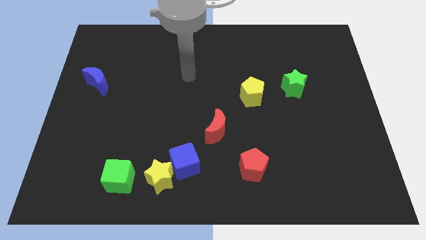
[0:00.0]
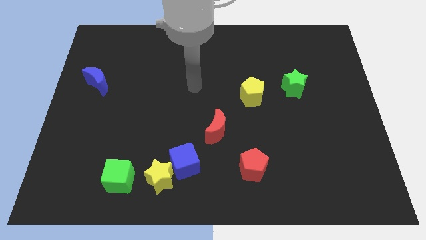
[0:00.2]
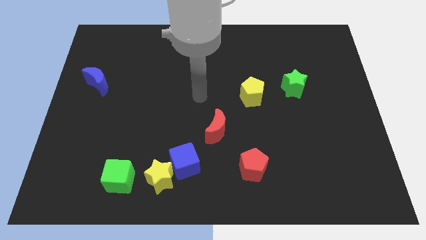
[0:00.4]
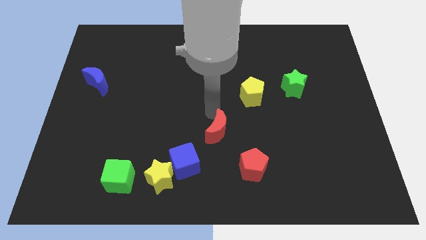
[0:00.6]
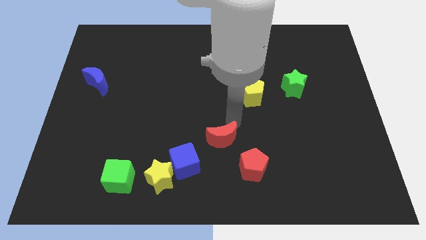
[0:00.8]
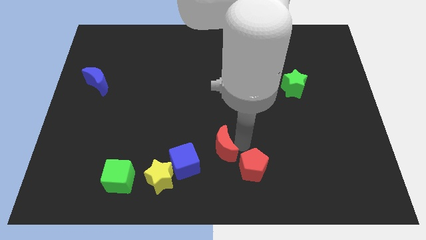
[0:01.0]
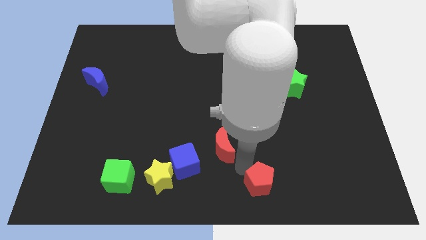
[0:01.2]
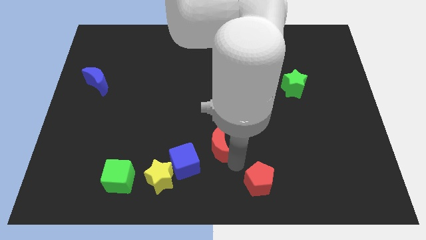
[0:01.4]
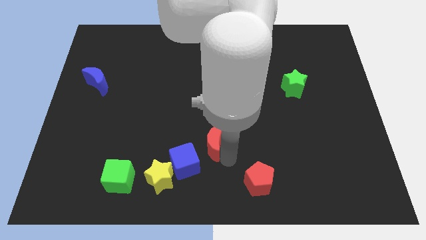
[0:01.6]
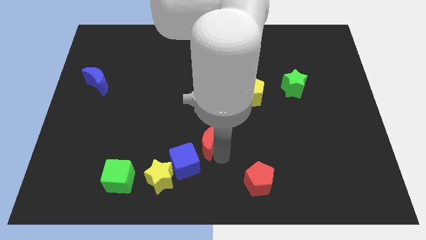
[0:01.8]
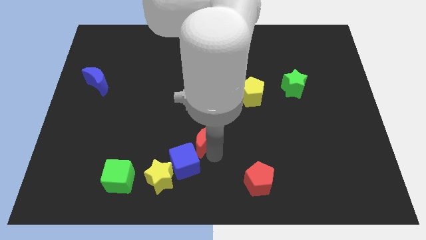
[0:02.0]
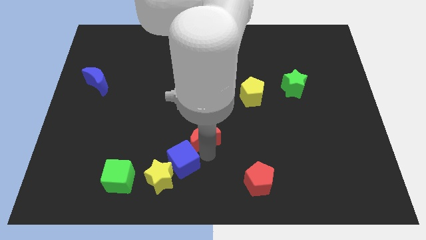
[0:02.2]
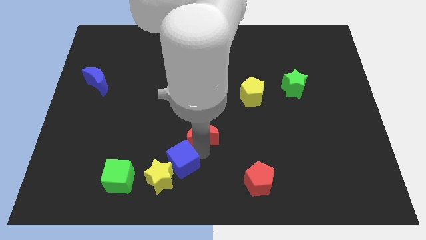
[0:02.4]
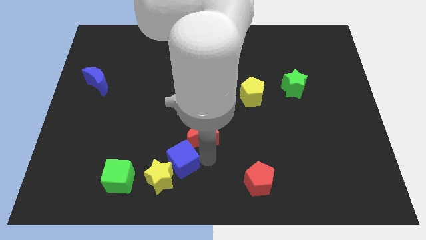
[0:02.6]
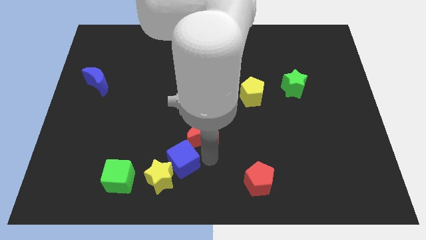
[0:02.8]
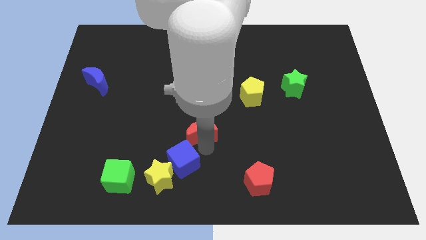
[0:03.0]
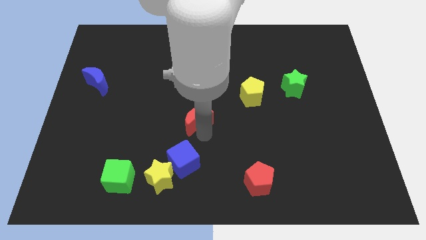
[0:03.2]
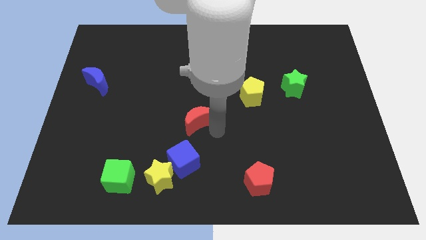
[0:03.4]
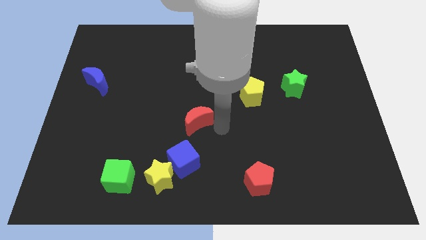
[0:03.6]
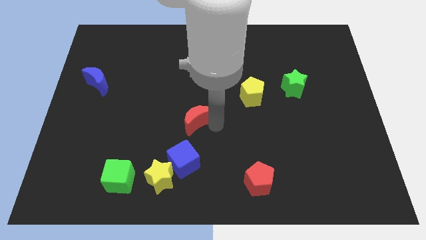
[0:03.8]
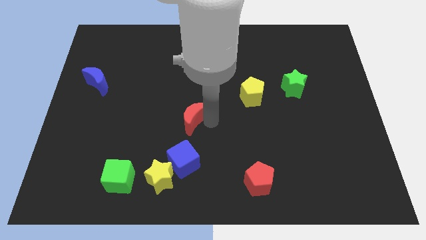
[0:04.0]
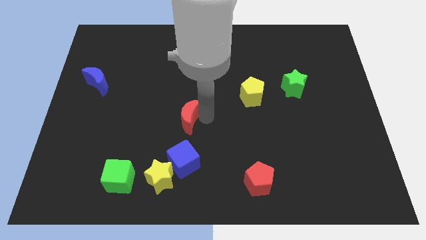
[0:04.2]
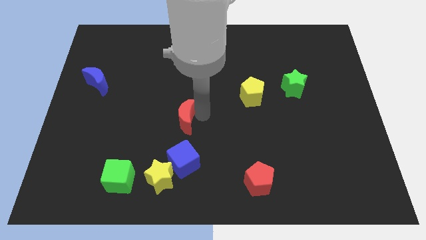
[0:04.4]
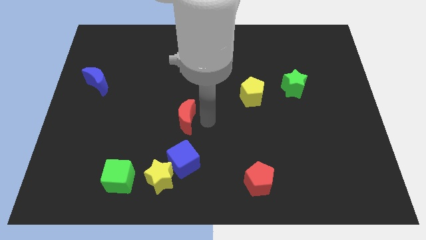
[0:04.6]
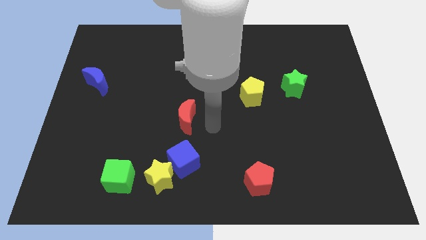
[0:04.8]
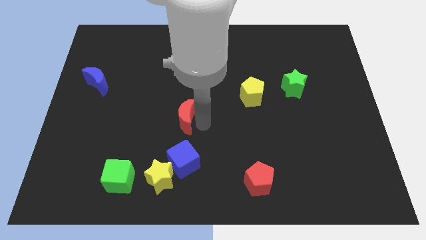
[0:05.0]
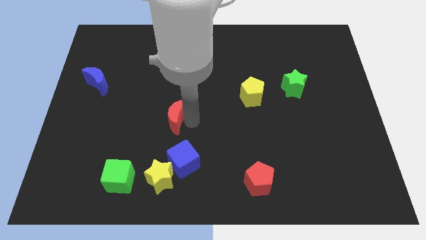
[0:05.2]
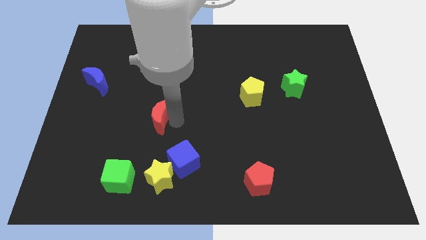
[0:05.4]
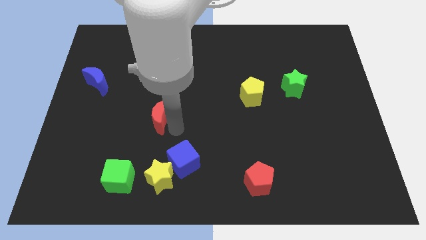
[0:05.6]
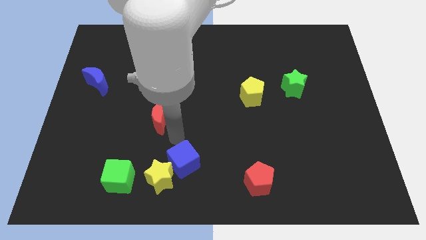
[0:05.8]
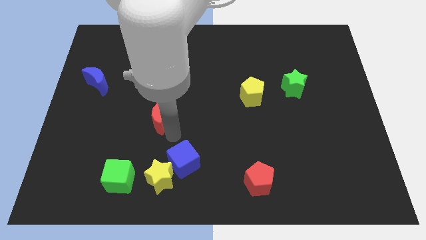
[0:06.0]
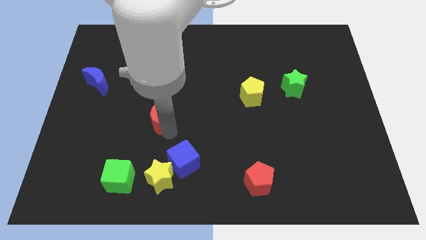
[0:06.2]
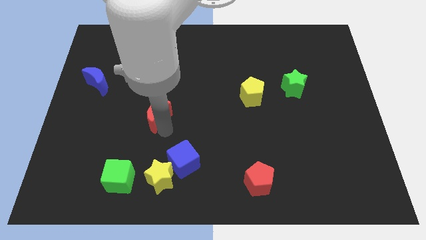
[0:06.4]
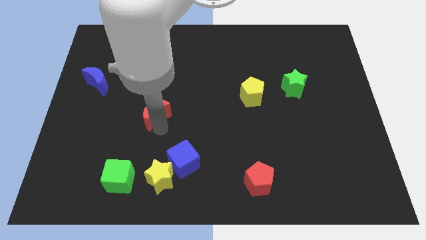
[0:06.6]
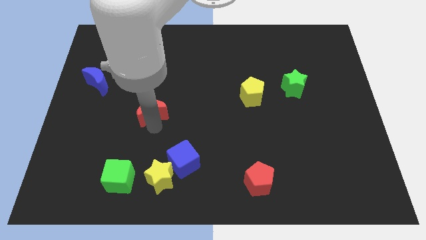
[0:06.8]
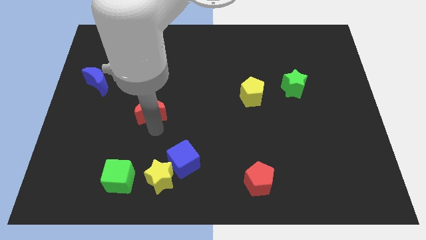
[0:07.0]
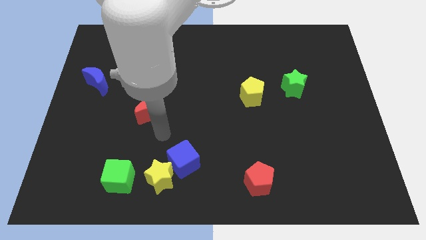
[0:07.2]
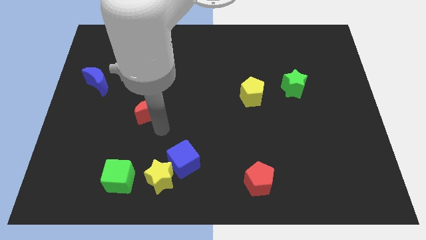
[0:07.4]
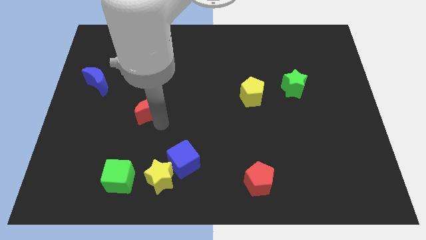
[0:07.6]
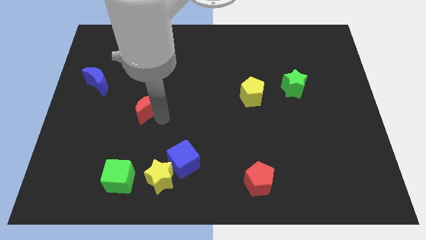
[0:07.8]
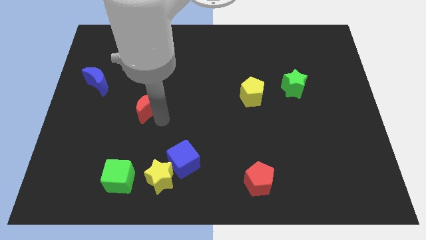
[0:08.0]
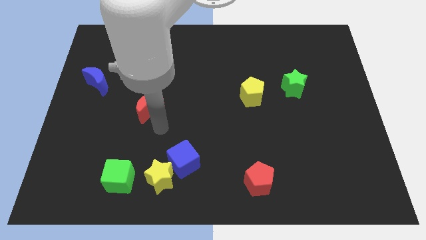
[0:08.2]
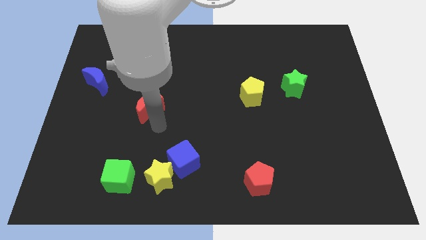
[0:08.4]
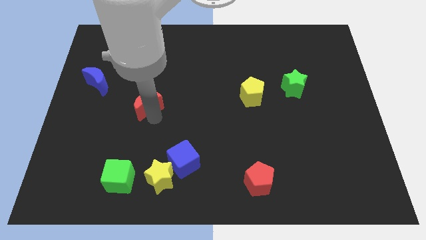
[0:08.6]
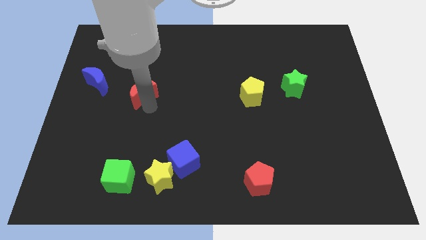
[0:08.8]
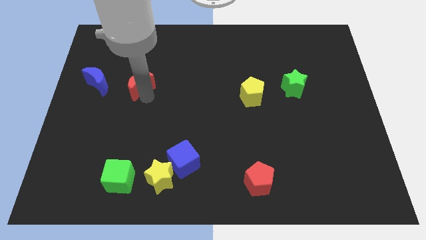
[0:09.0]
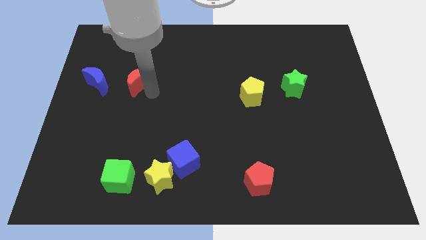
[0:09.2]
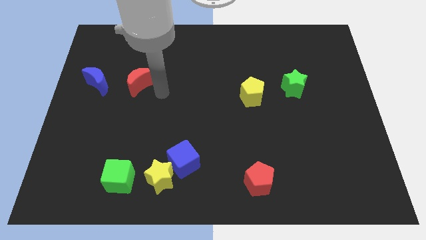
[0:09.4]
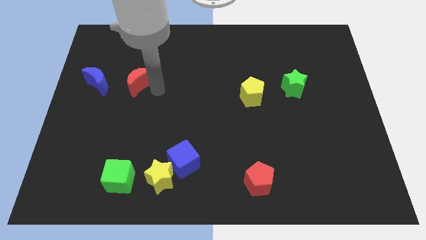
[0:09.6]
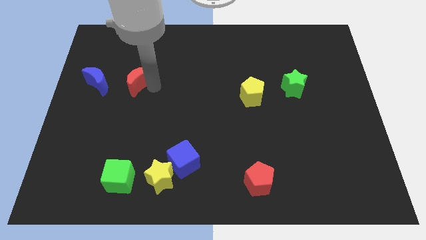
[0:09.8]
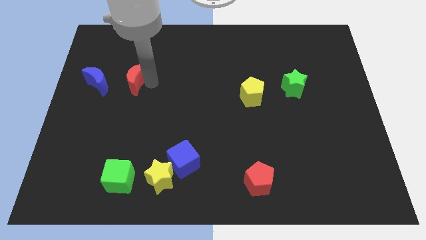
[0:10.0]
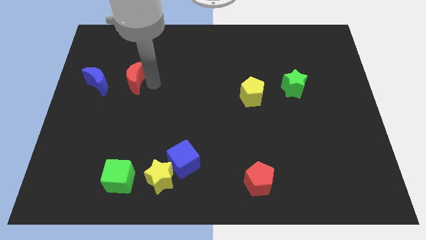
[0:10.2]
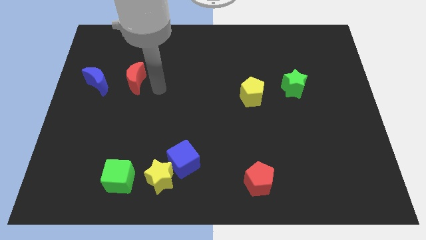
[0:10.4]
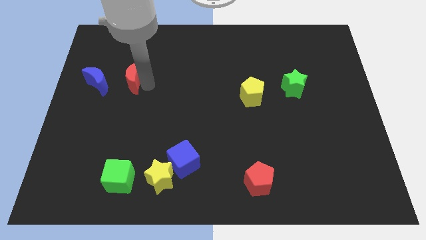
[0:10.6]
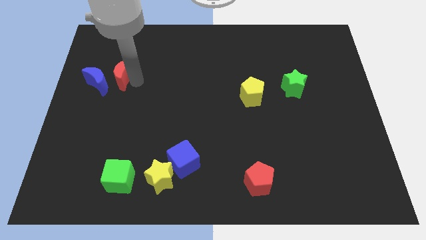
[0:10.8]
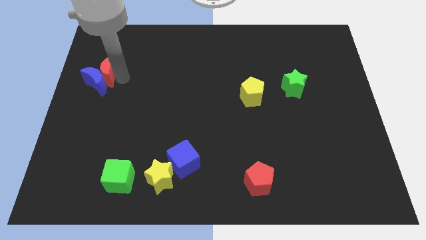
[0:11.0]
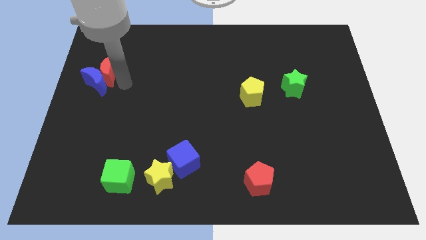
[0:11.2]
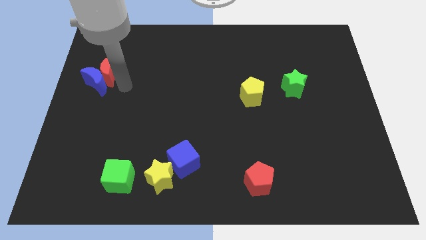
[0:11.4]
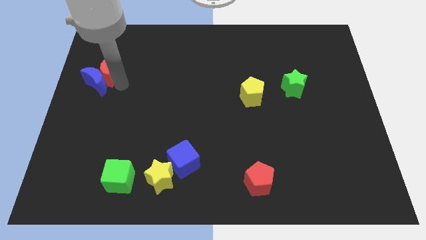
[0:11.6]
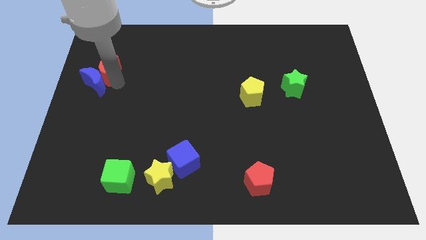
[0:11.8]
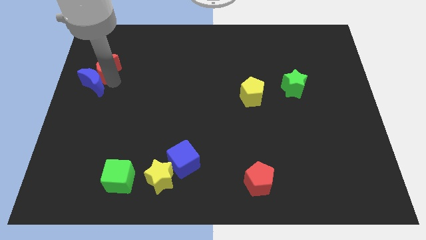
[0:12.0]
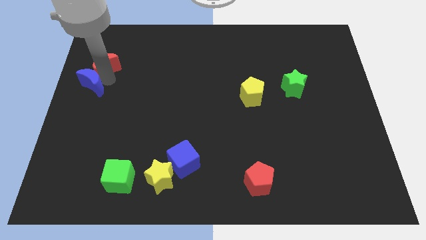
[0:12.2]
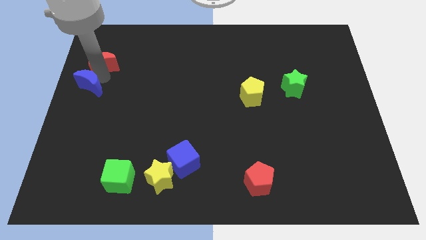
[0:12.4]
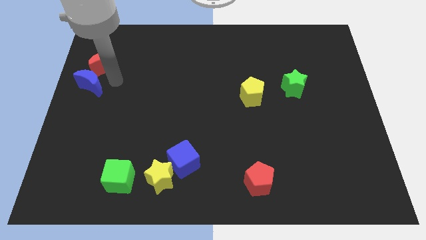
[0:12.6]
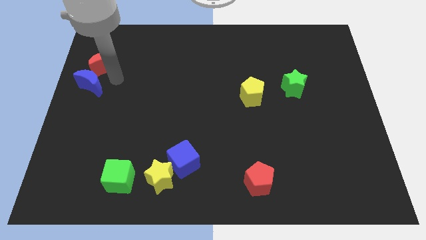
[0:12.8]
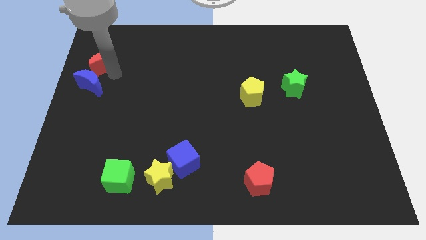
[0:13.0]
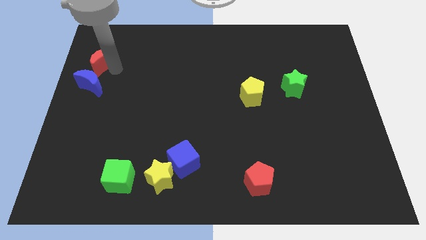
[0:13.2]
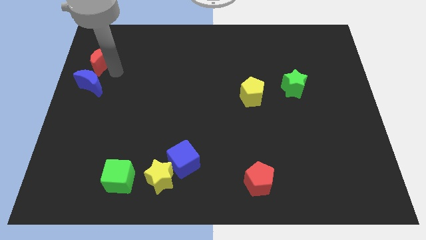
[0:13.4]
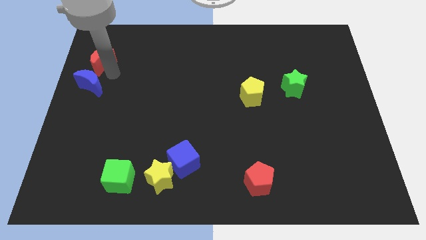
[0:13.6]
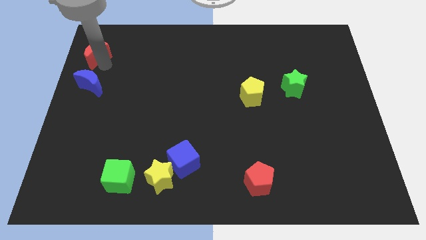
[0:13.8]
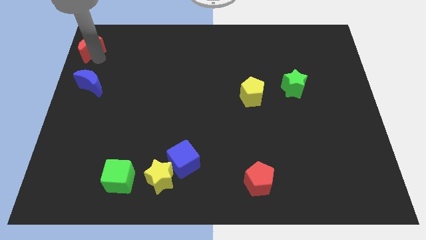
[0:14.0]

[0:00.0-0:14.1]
push the red moon to the upper left corner
